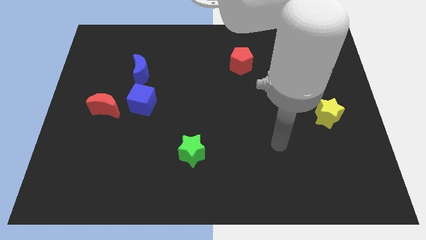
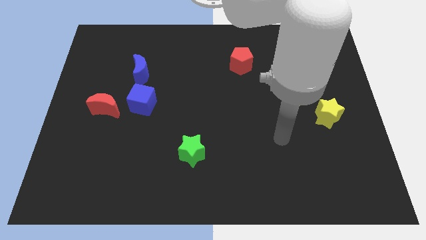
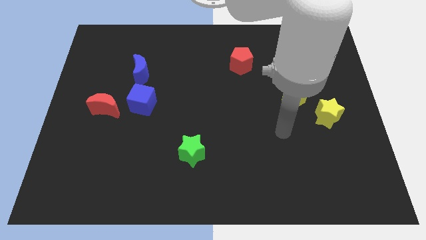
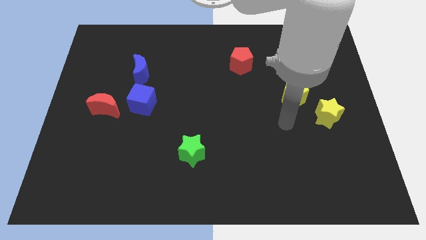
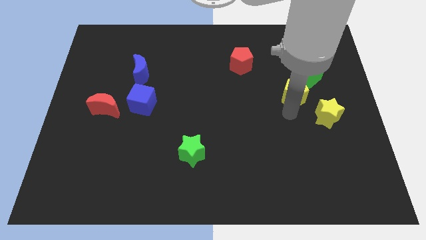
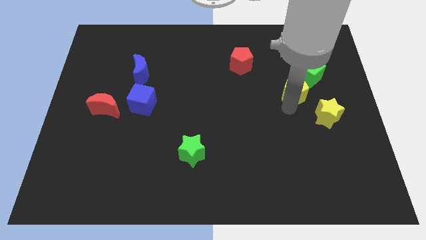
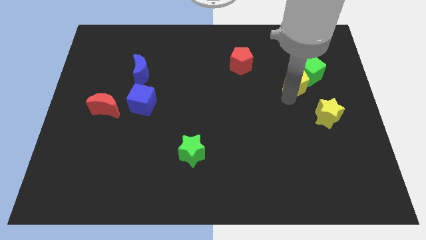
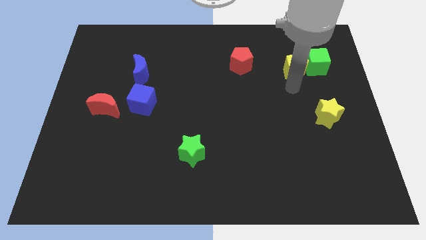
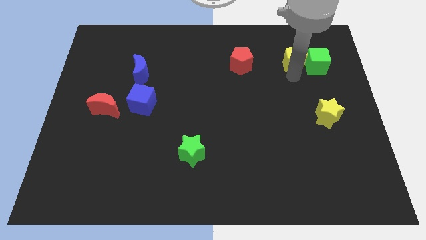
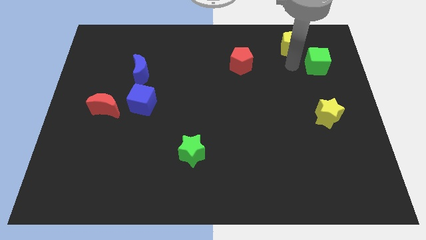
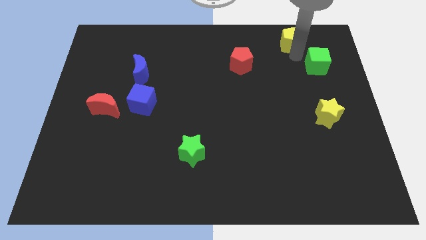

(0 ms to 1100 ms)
separate the green cube from the yellow pentagon

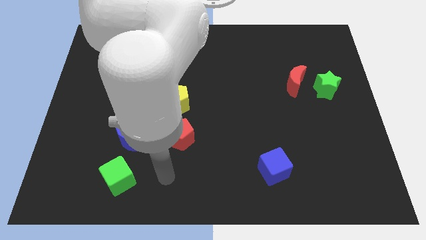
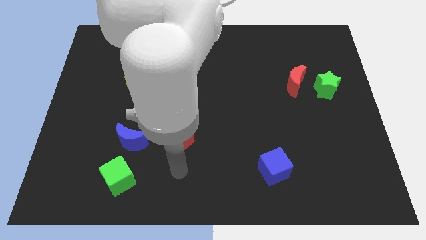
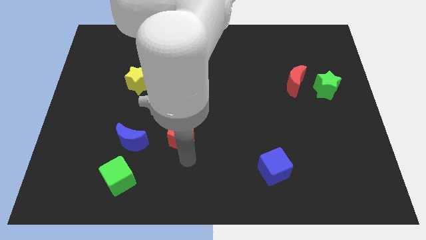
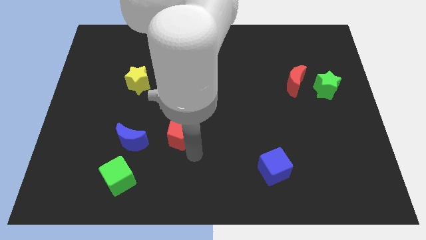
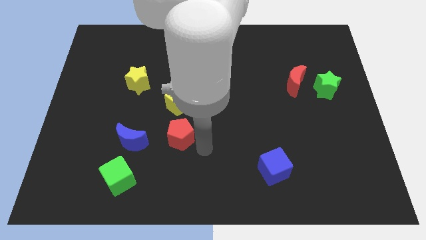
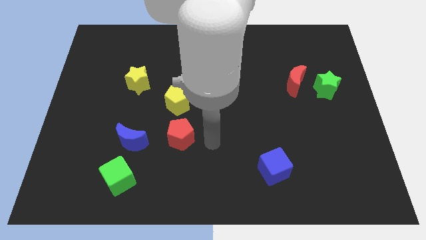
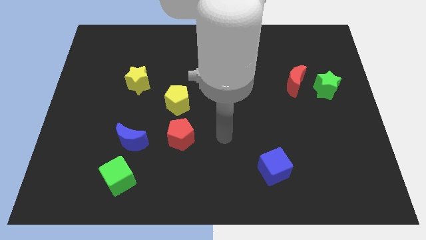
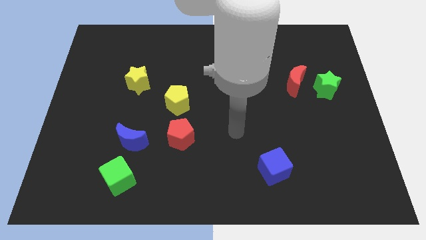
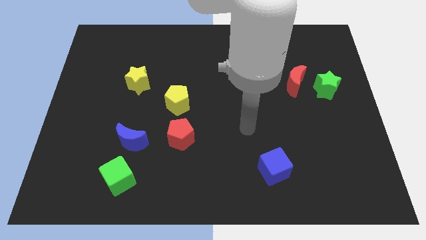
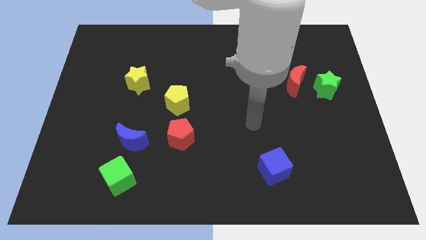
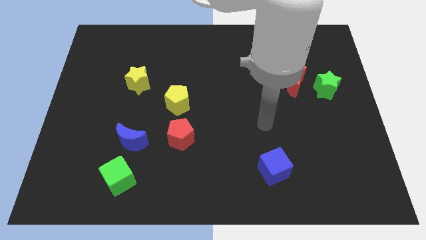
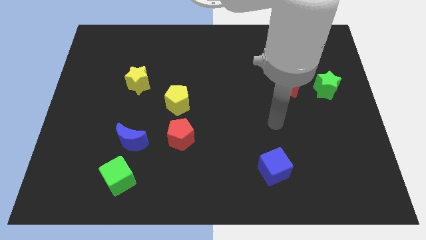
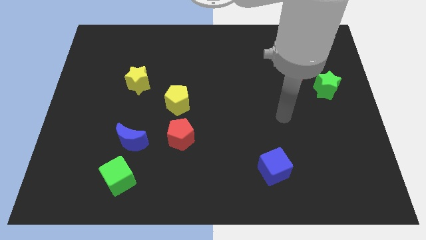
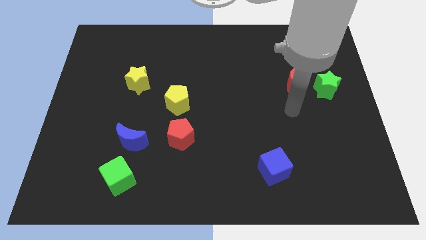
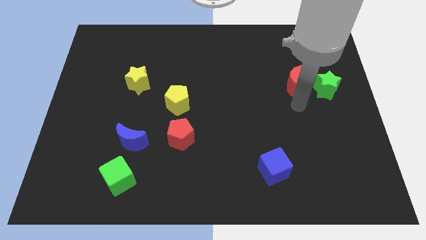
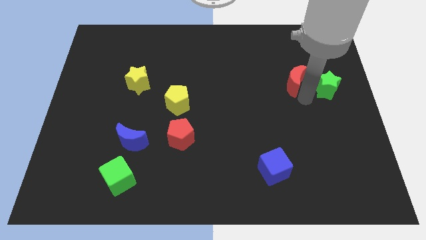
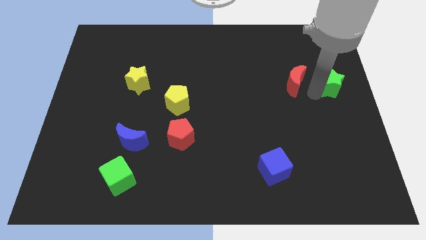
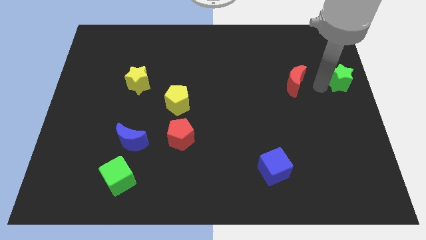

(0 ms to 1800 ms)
move the red moon away from the green star

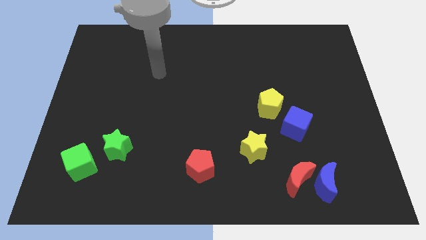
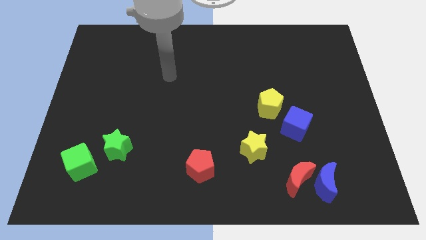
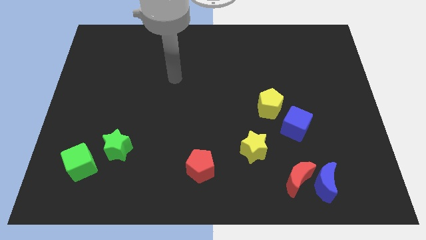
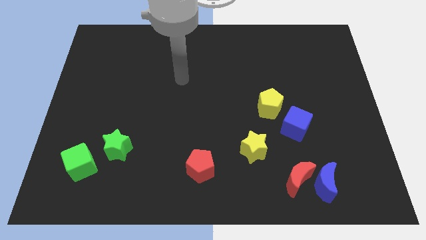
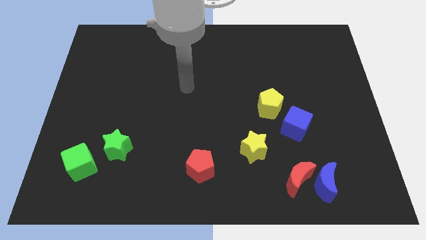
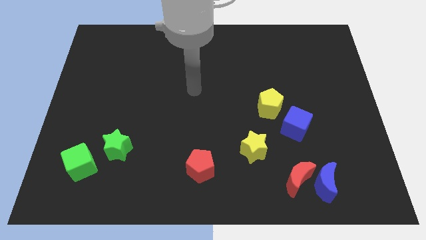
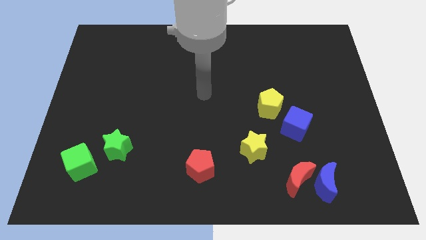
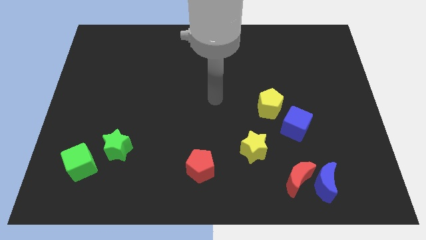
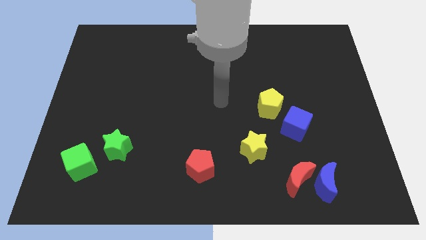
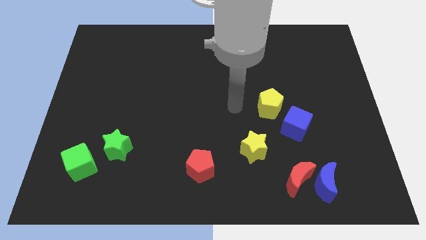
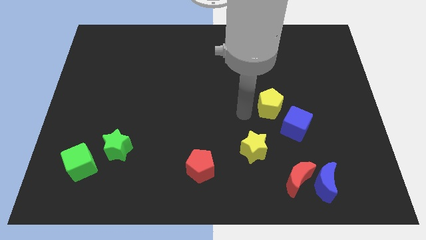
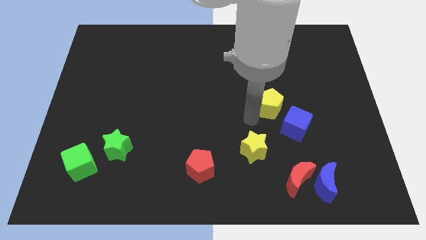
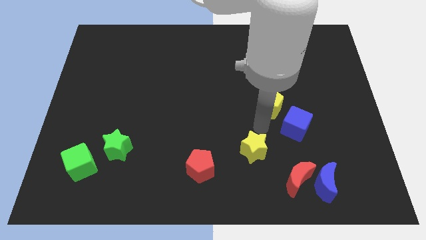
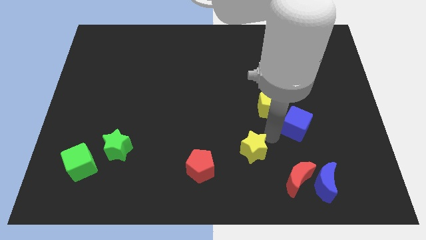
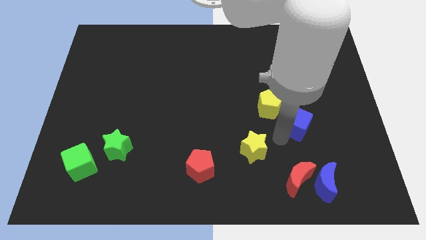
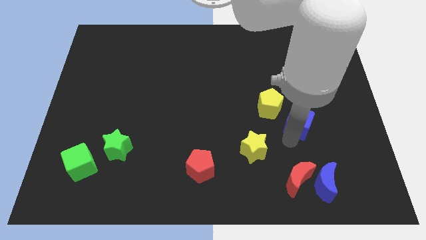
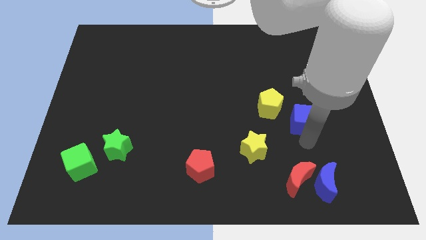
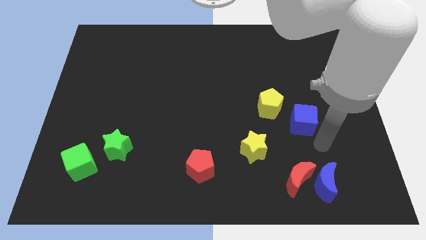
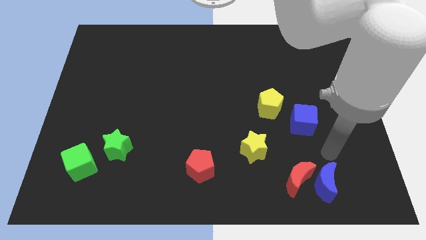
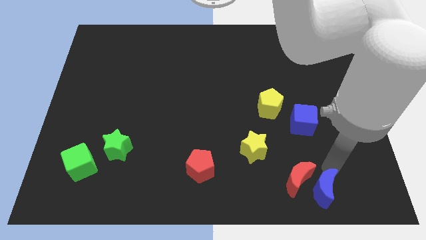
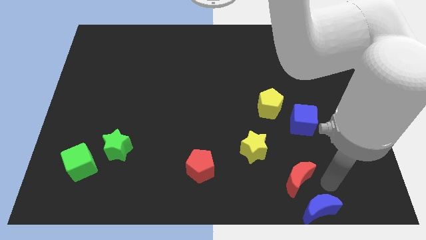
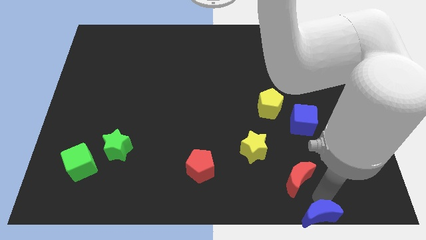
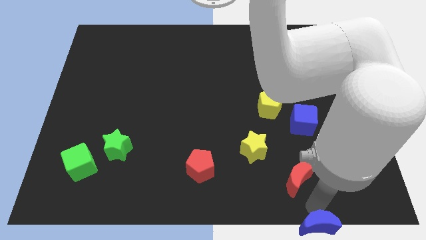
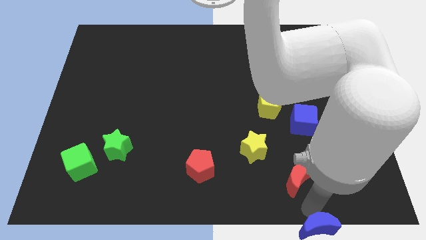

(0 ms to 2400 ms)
pull the red moon apart from the blue moon

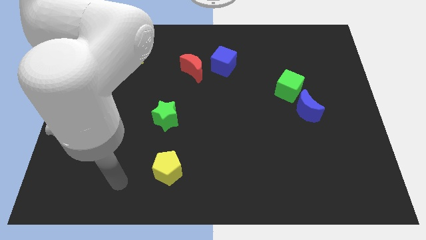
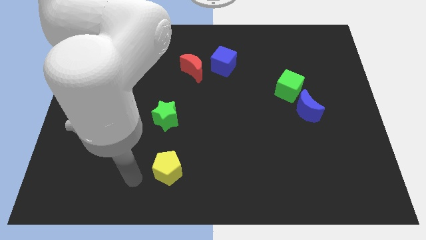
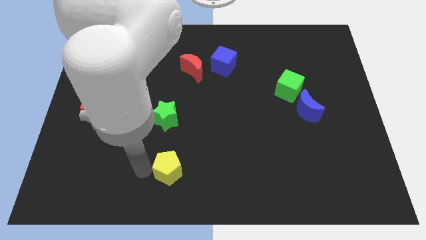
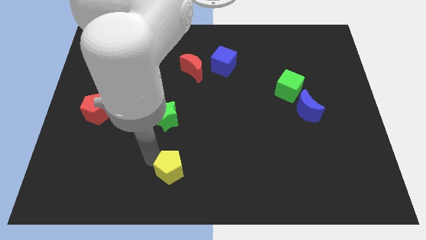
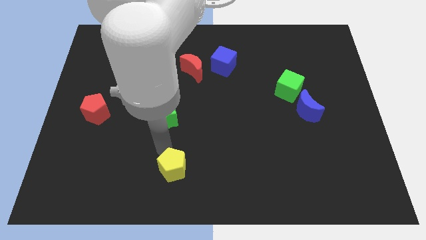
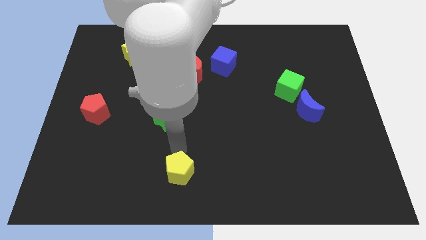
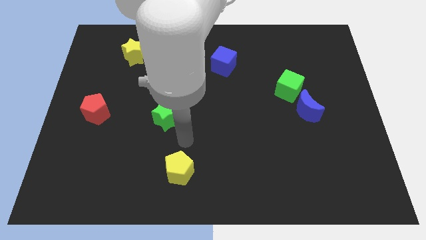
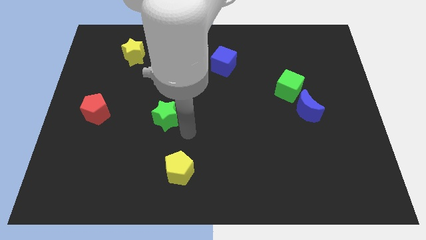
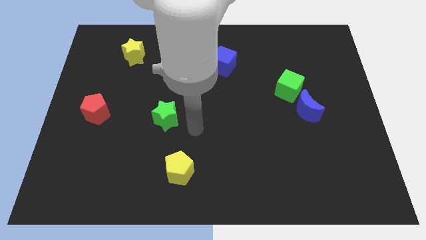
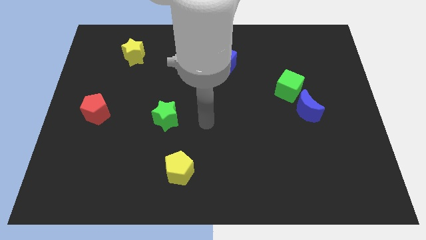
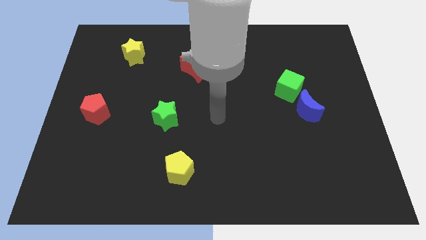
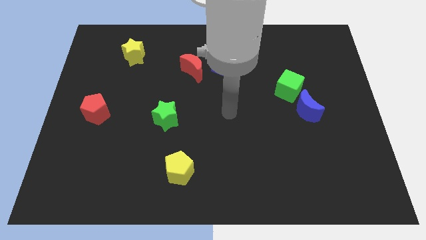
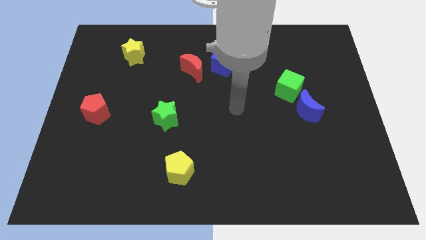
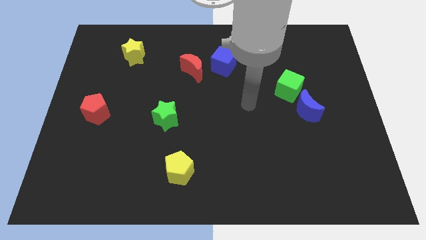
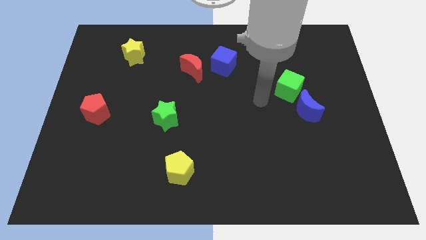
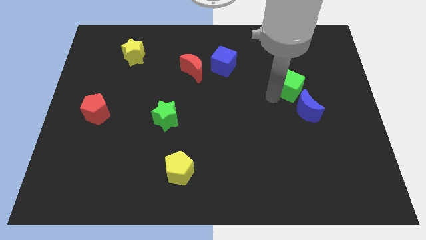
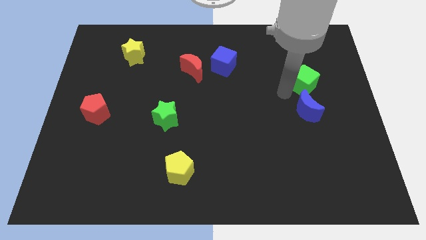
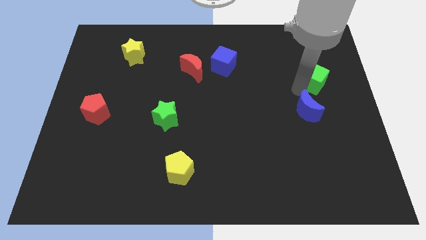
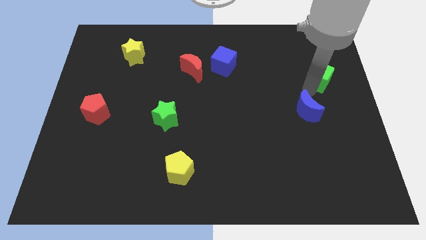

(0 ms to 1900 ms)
separate the blue moon from the green cube

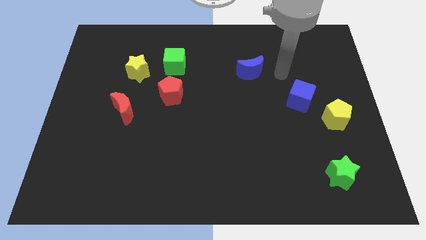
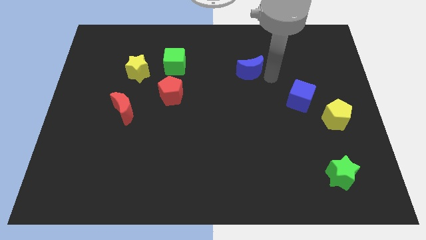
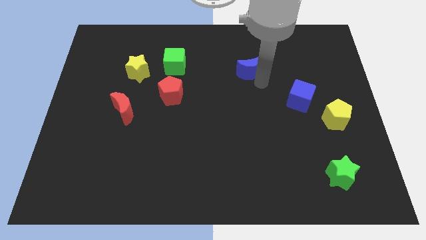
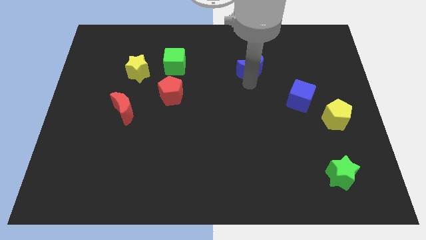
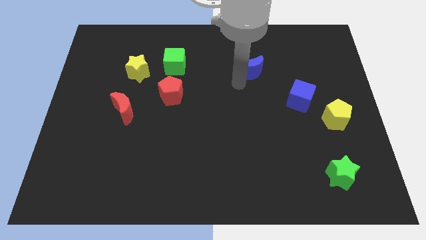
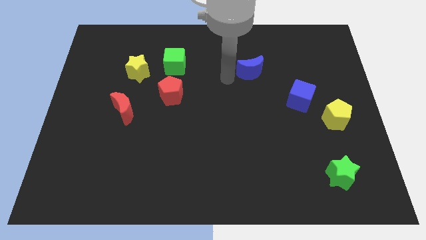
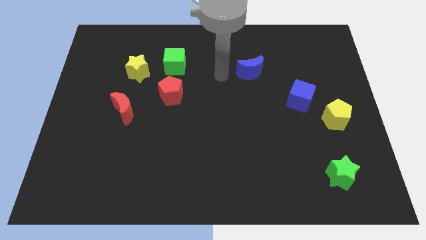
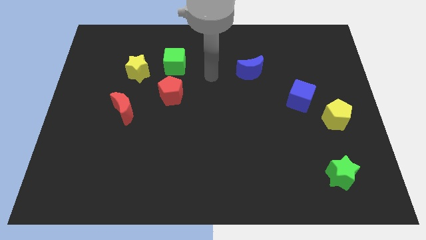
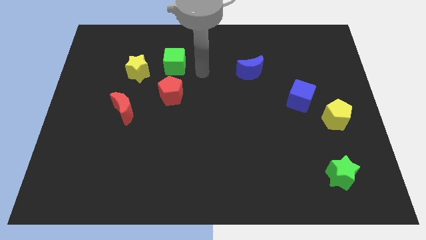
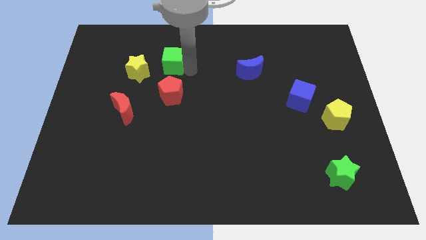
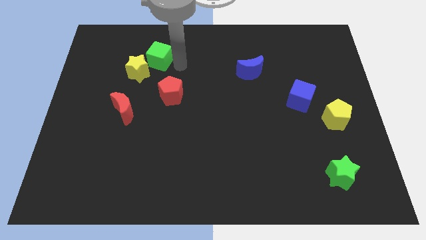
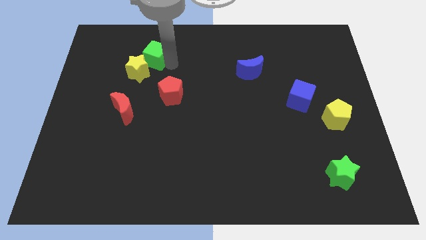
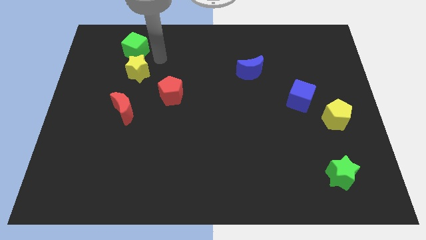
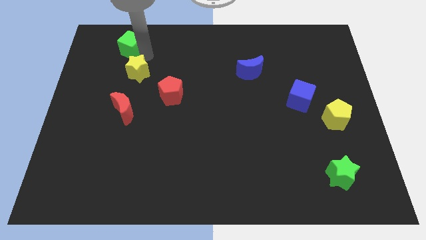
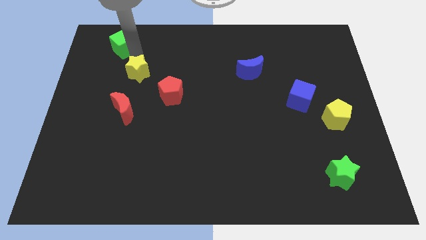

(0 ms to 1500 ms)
separate the yellow star from the green cube

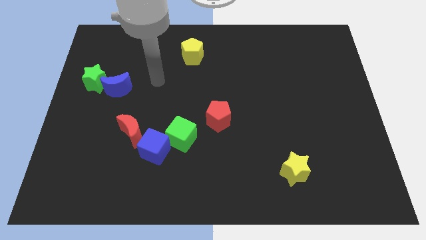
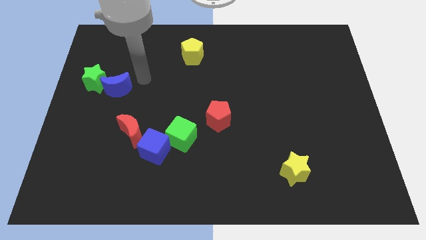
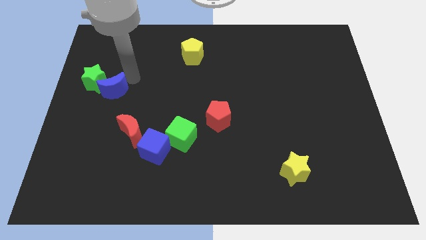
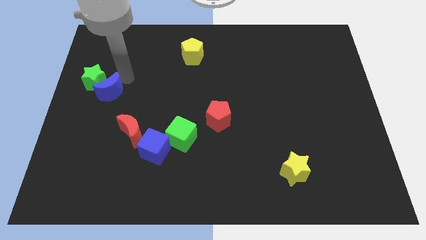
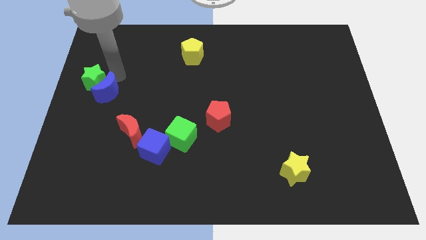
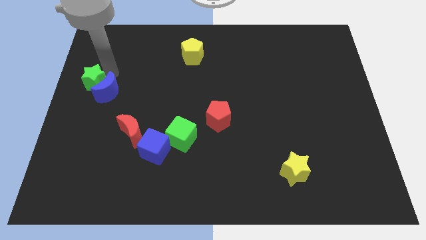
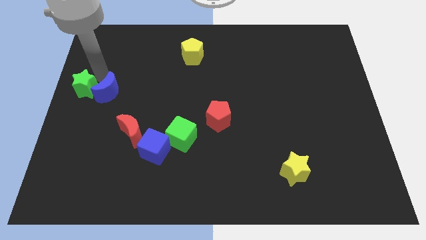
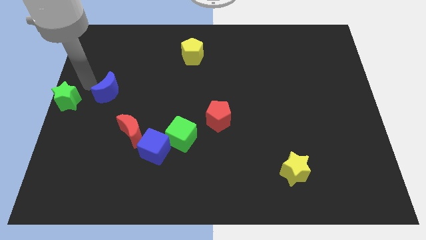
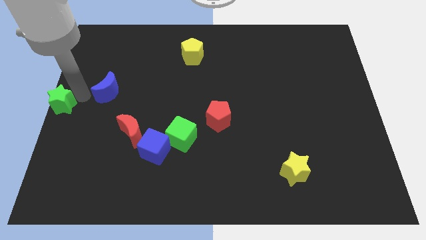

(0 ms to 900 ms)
separate the blue moon from the green star
